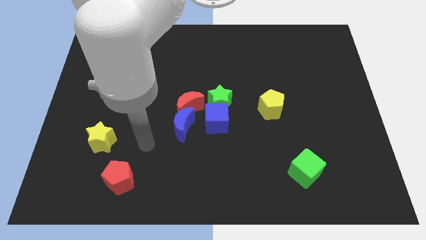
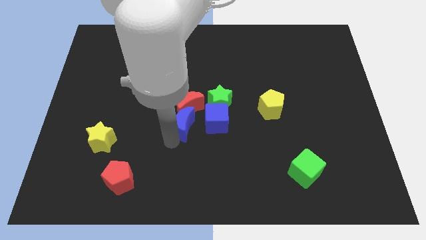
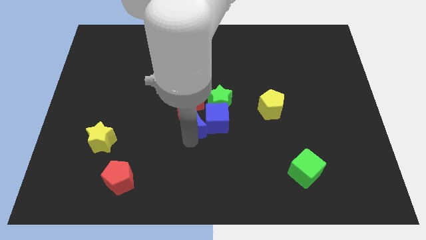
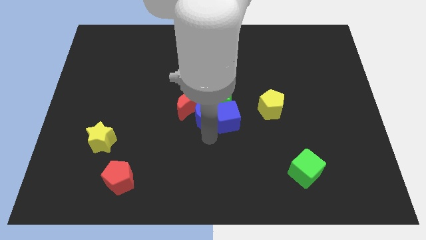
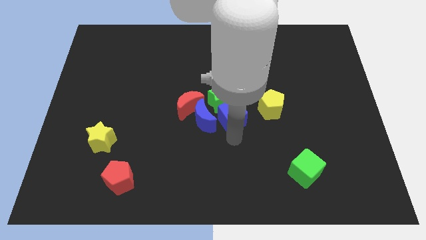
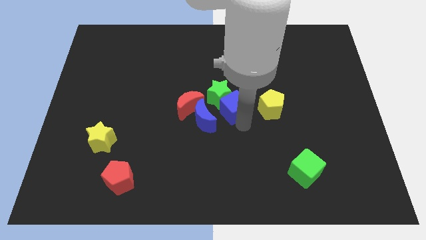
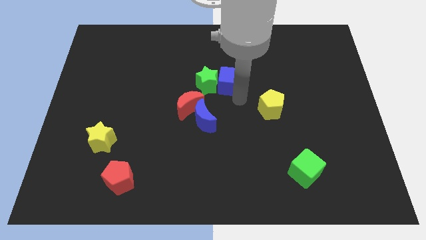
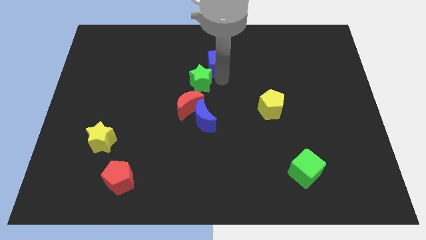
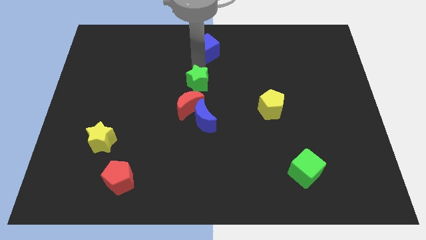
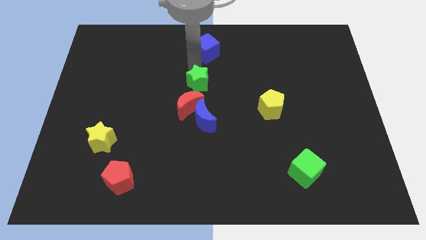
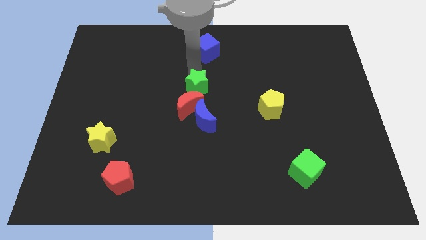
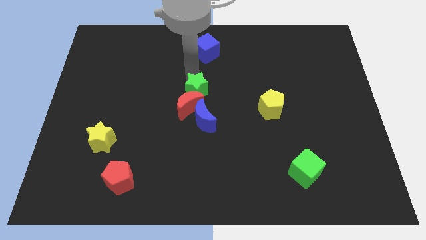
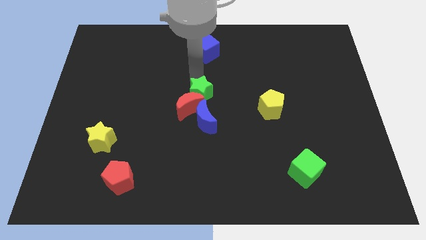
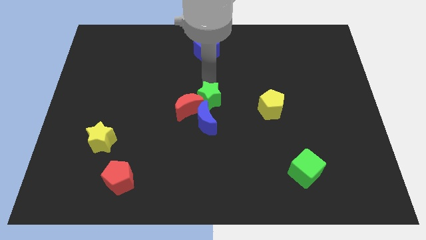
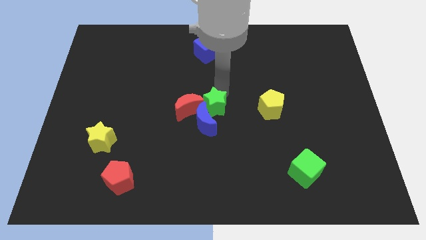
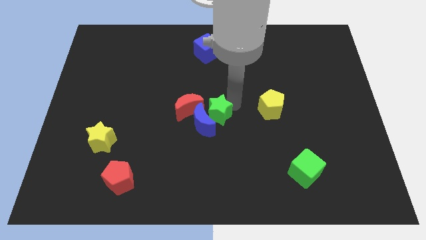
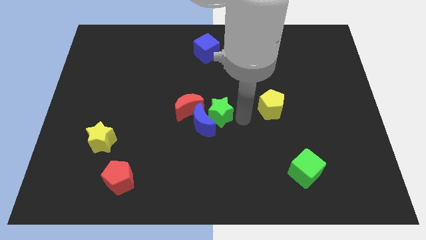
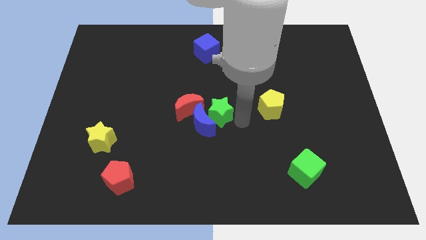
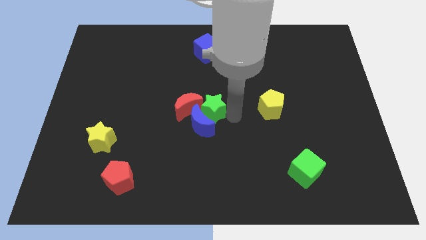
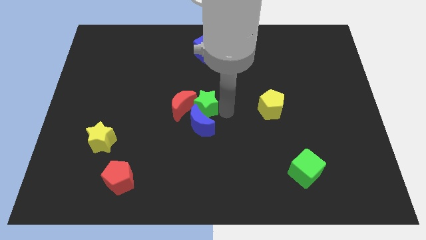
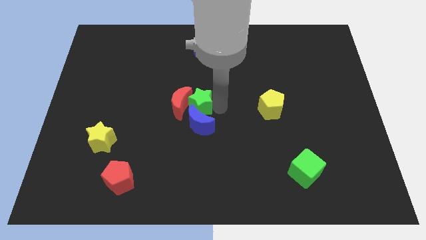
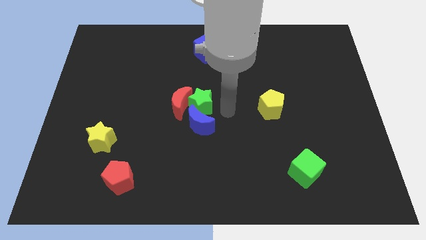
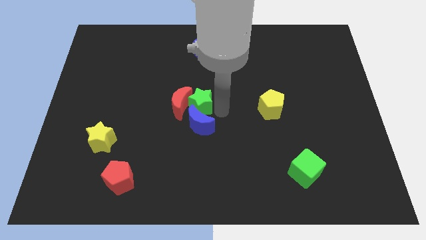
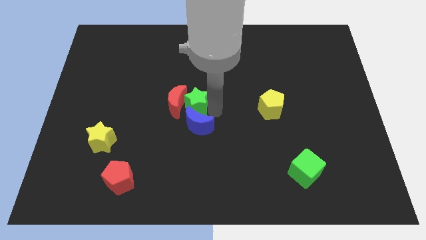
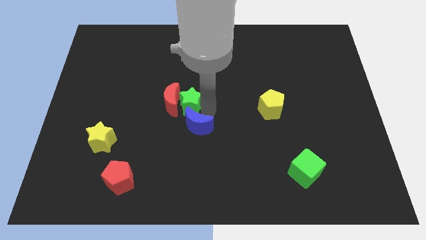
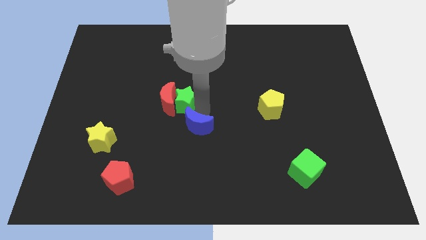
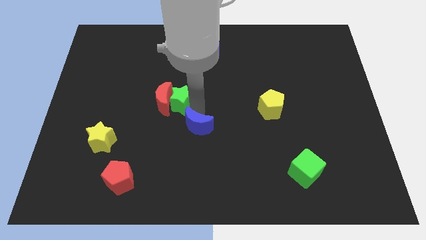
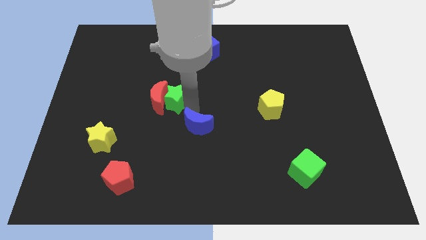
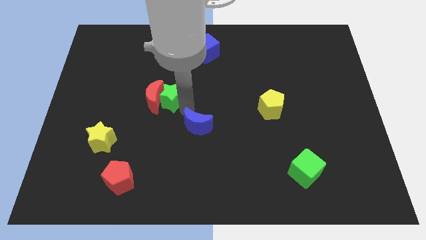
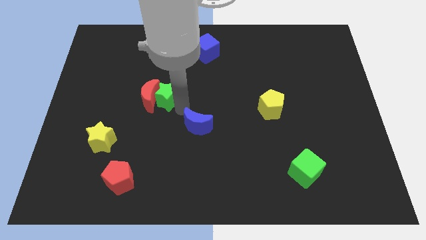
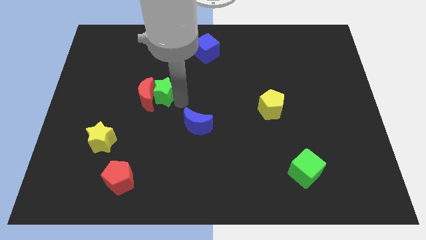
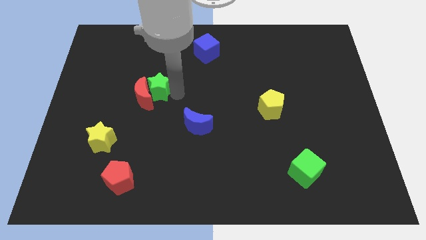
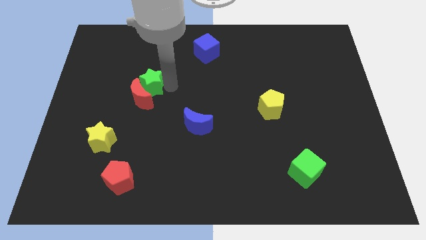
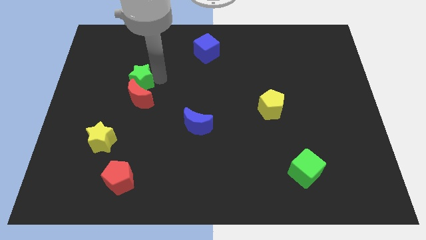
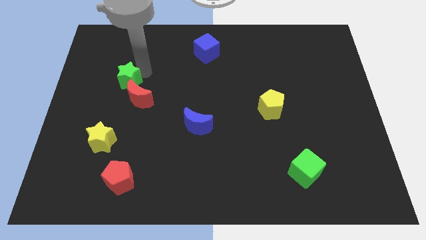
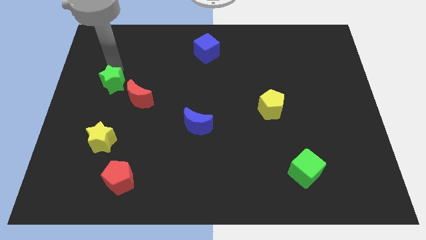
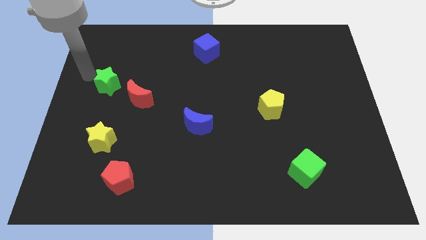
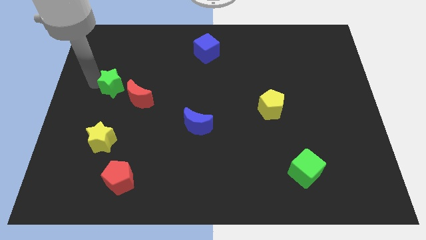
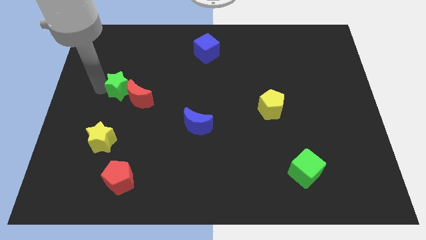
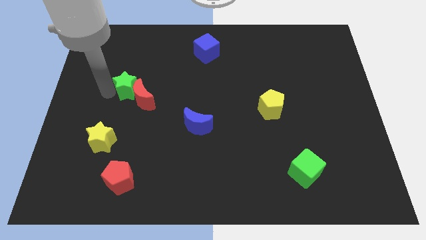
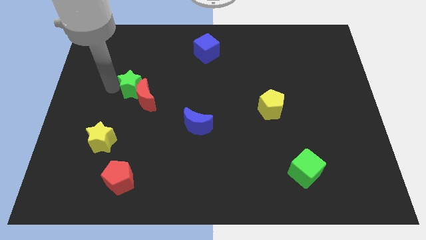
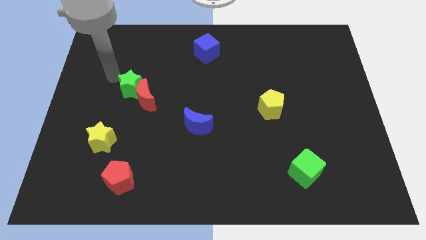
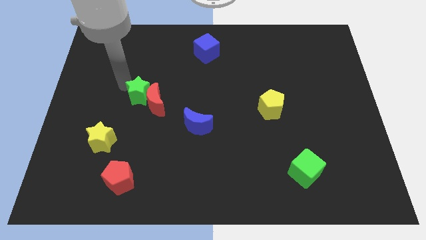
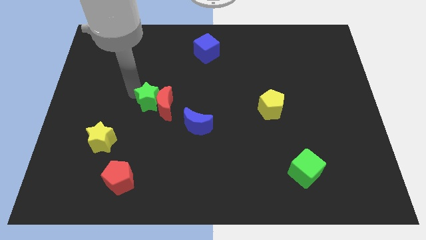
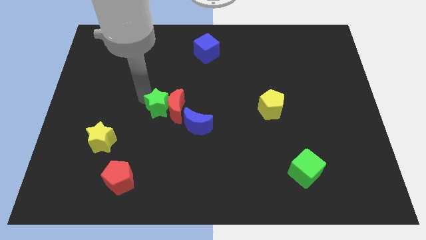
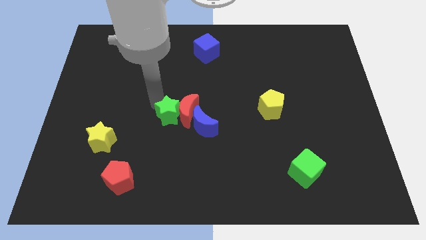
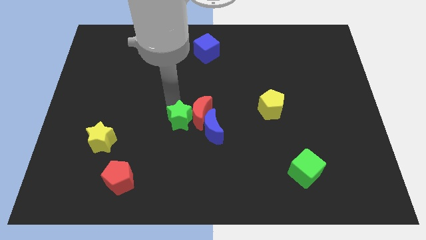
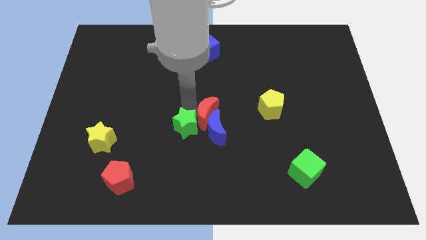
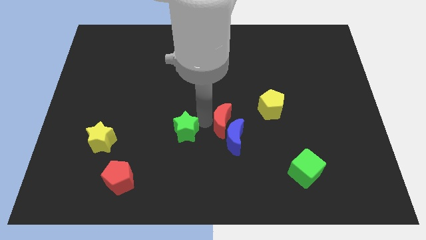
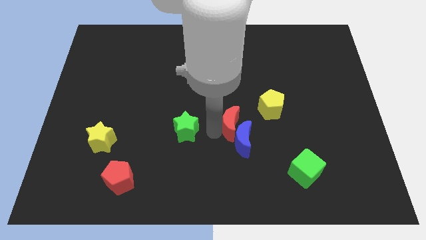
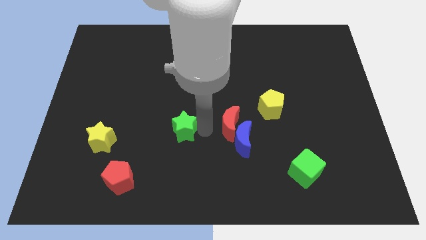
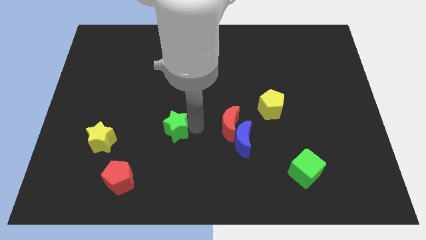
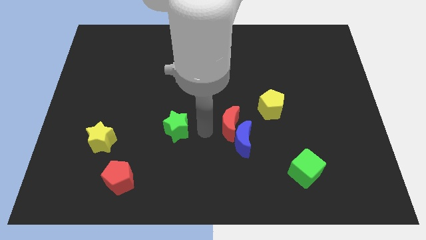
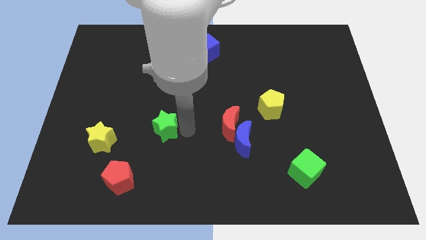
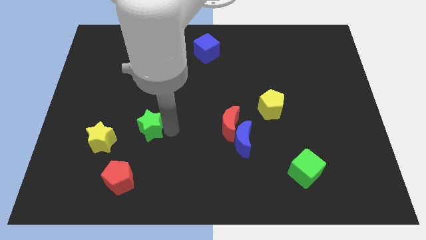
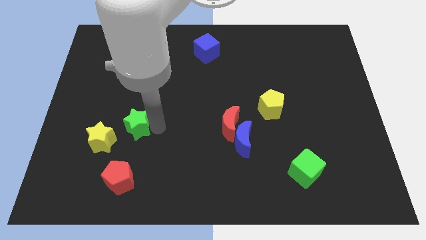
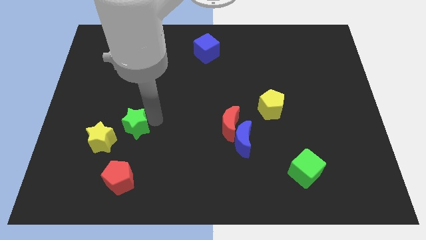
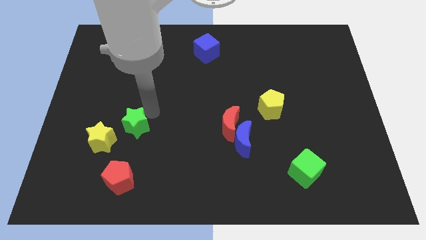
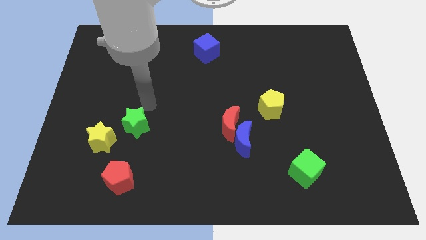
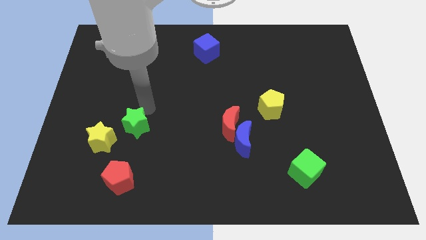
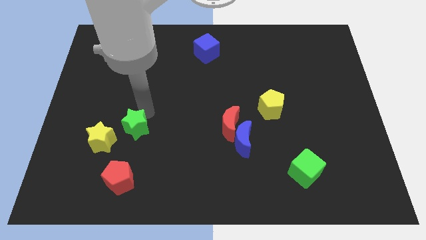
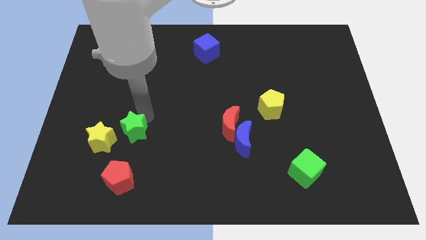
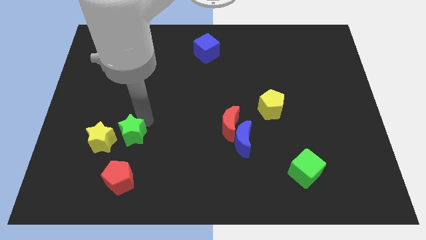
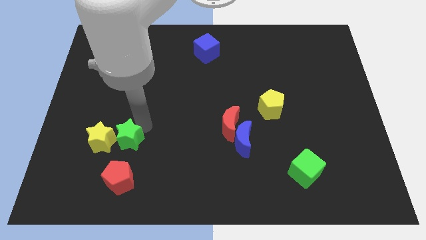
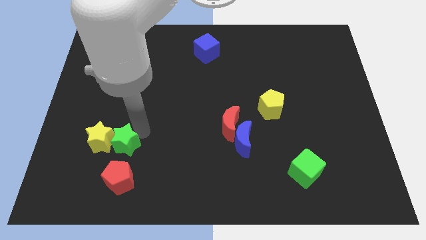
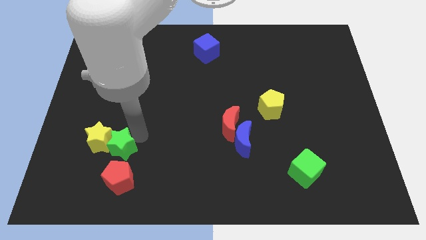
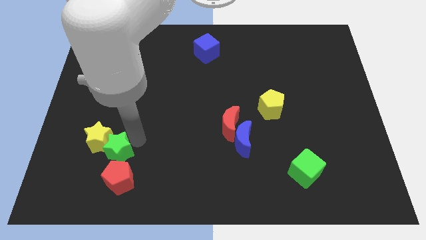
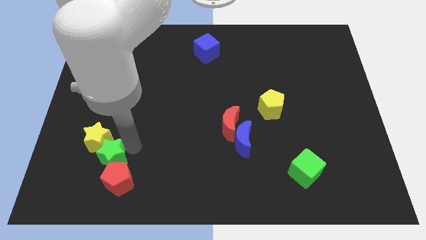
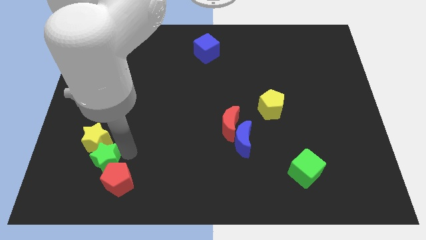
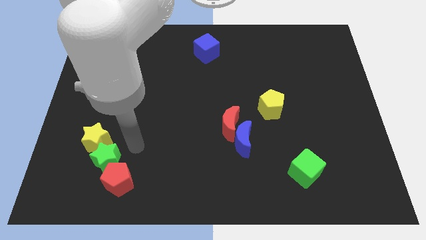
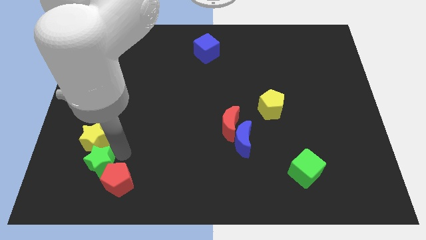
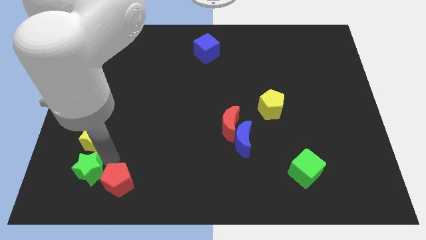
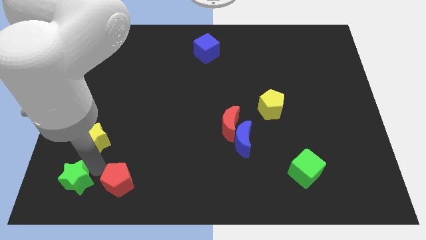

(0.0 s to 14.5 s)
push the green star to the lower left corner
